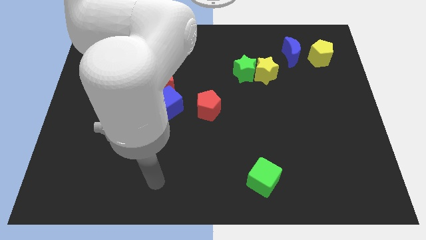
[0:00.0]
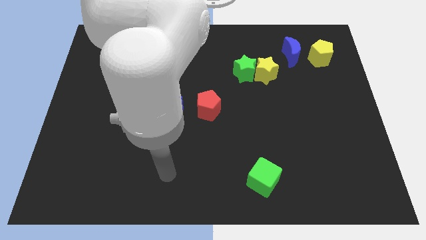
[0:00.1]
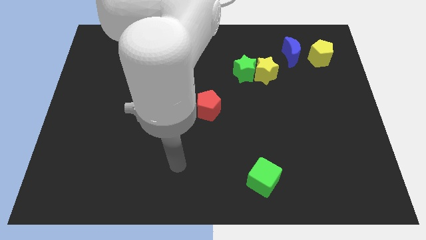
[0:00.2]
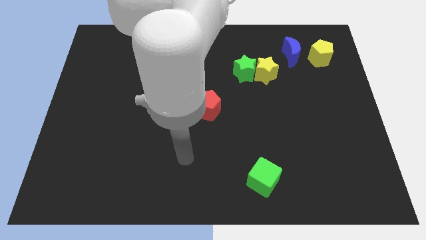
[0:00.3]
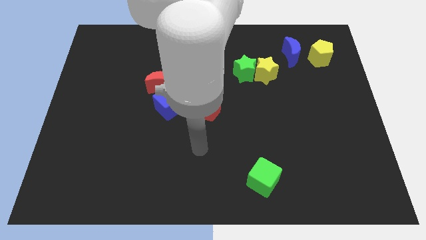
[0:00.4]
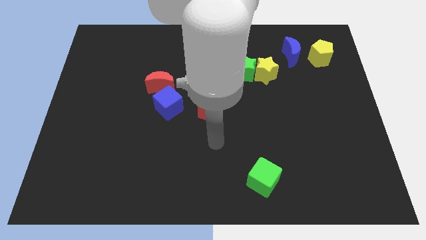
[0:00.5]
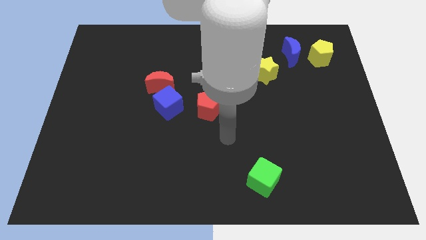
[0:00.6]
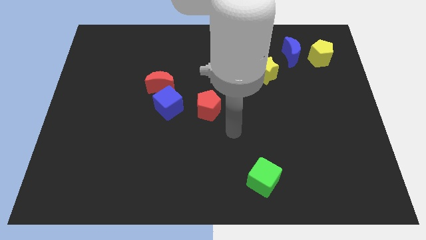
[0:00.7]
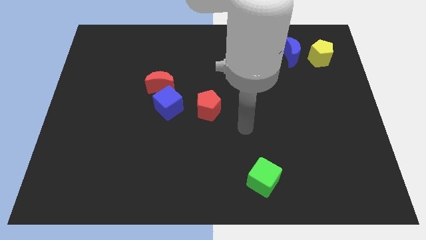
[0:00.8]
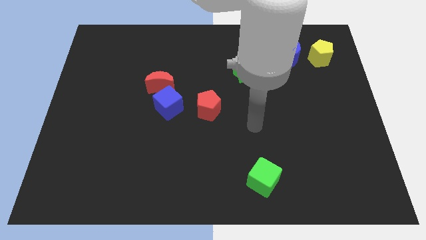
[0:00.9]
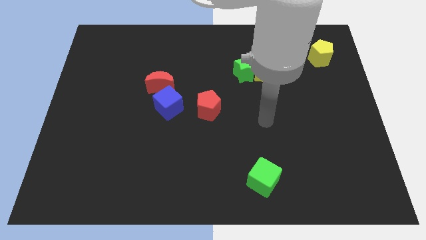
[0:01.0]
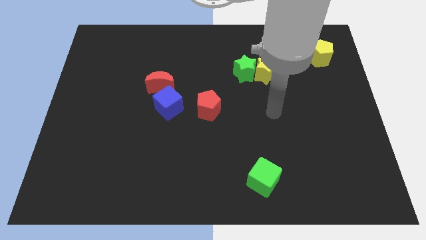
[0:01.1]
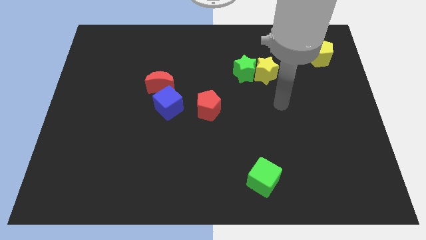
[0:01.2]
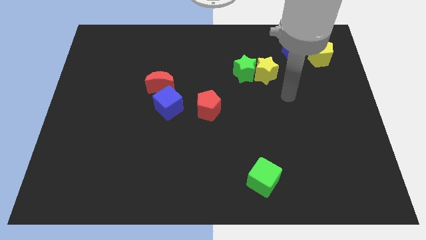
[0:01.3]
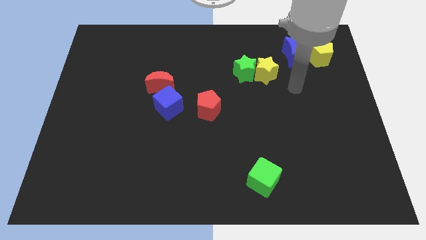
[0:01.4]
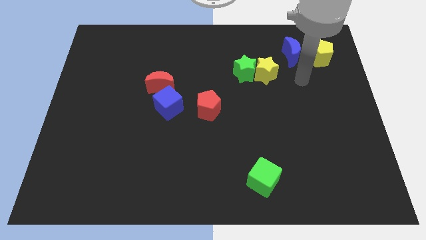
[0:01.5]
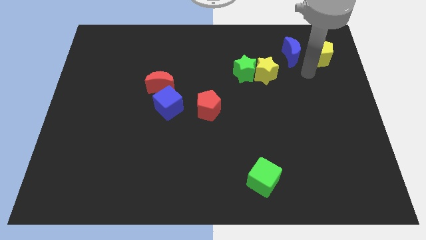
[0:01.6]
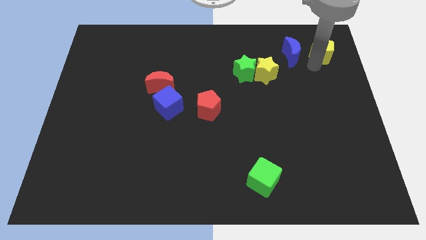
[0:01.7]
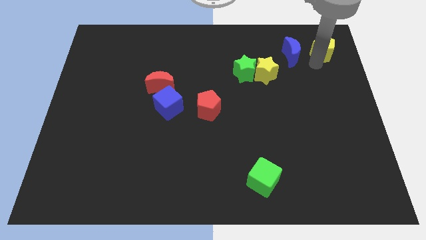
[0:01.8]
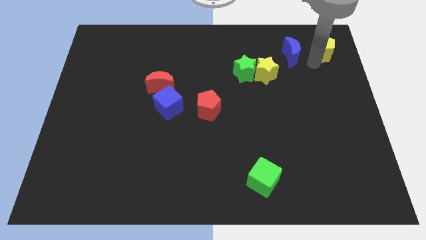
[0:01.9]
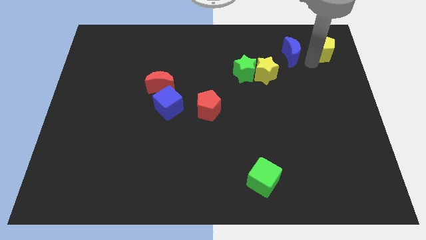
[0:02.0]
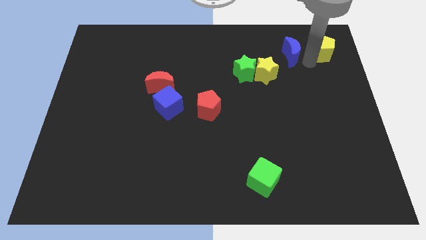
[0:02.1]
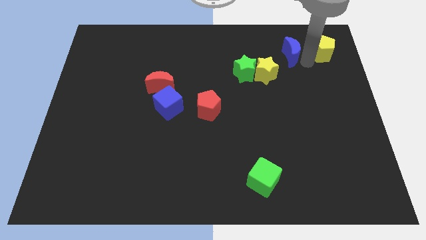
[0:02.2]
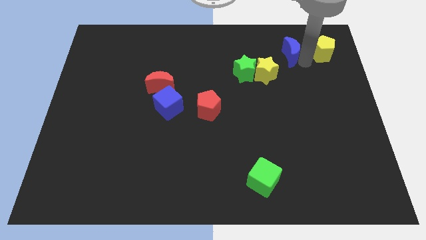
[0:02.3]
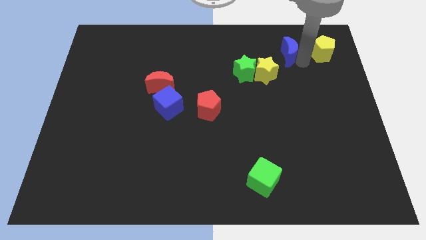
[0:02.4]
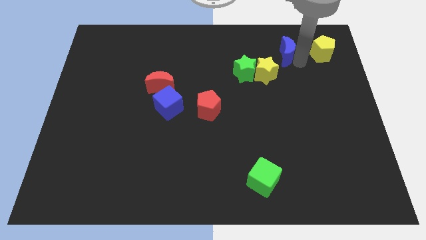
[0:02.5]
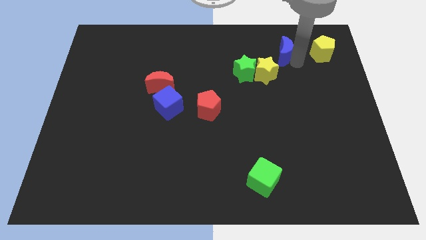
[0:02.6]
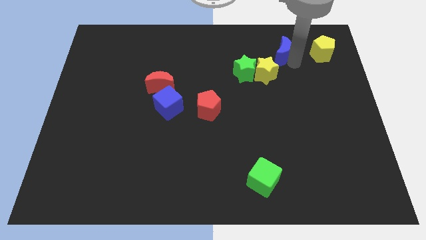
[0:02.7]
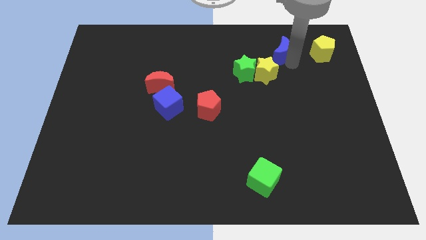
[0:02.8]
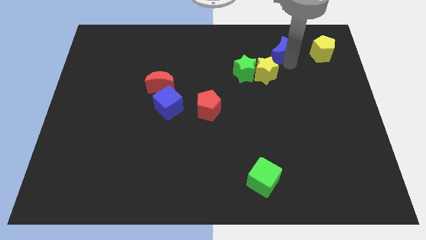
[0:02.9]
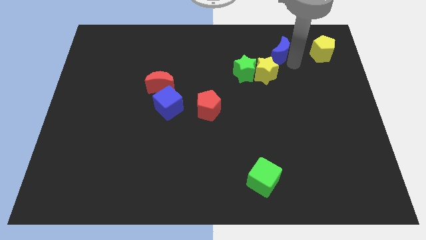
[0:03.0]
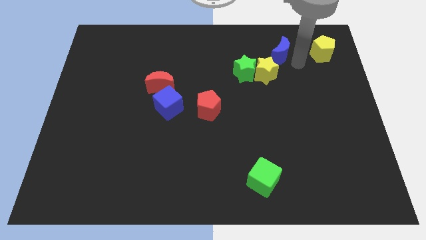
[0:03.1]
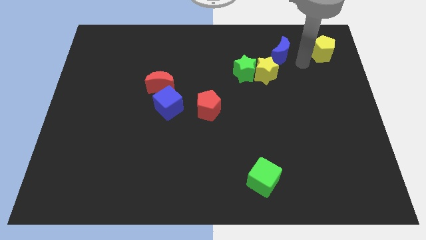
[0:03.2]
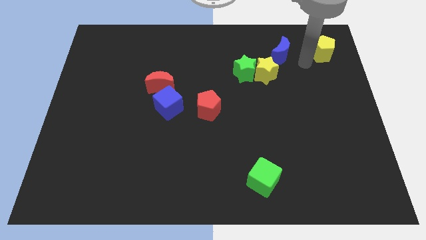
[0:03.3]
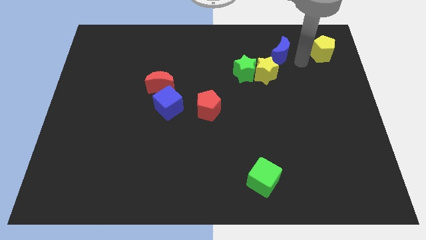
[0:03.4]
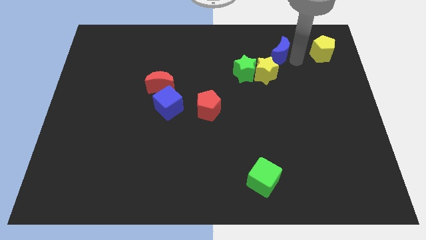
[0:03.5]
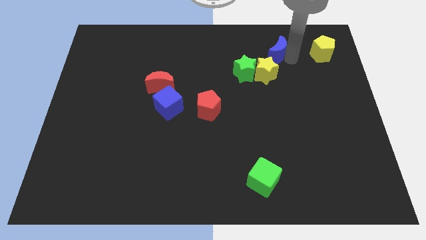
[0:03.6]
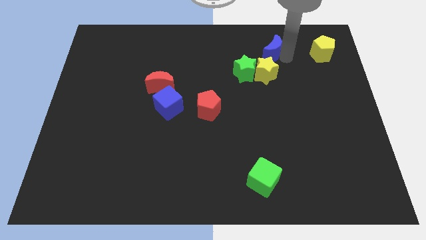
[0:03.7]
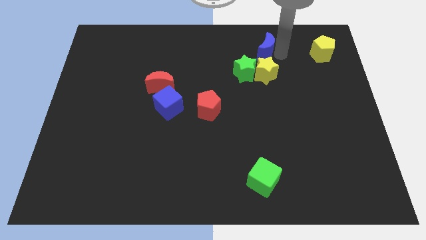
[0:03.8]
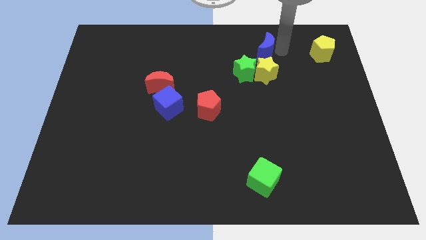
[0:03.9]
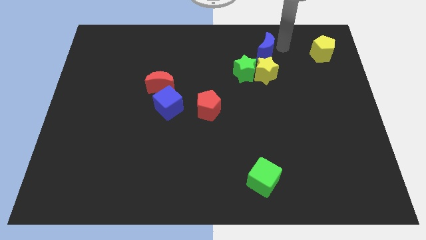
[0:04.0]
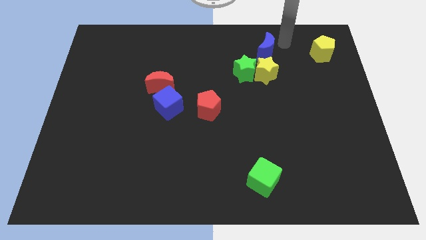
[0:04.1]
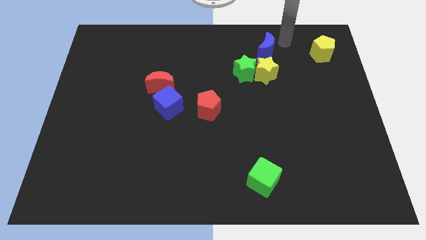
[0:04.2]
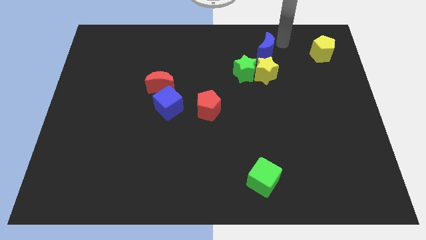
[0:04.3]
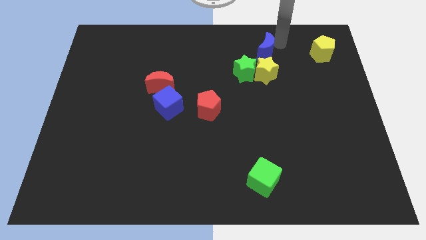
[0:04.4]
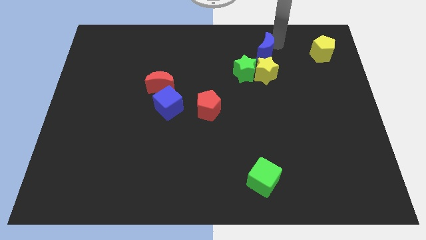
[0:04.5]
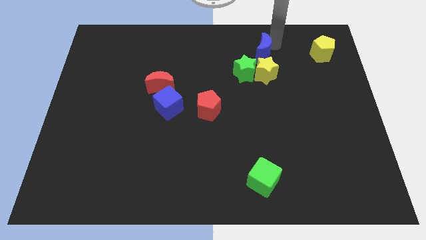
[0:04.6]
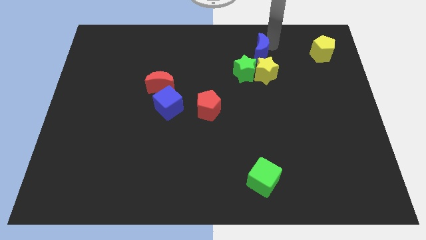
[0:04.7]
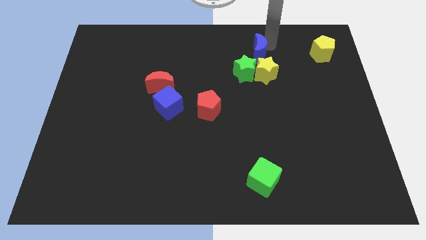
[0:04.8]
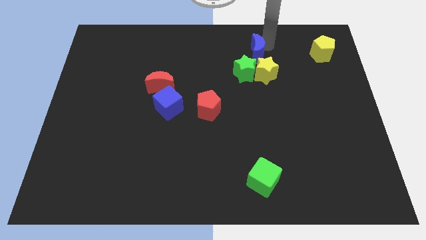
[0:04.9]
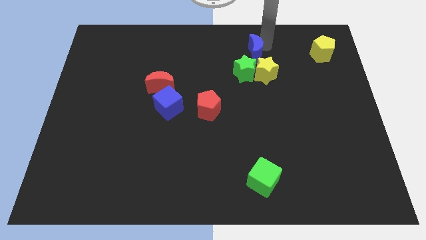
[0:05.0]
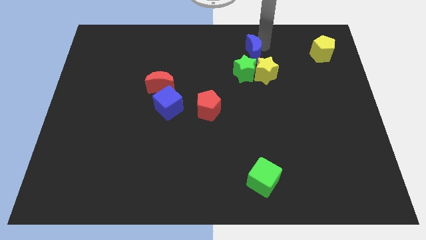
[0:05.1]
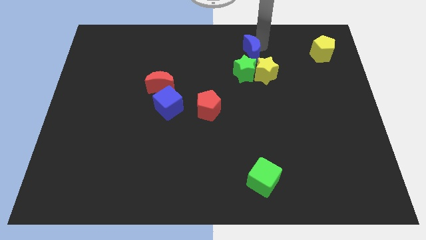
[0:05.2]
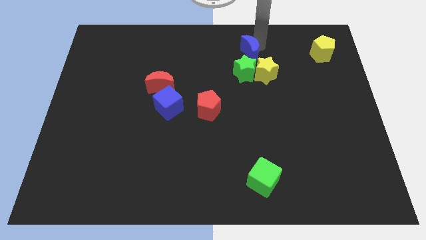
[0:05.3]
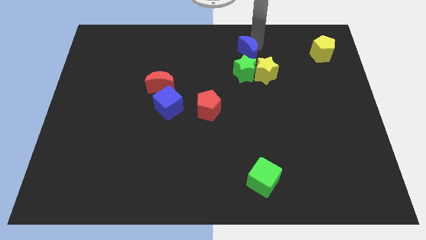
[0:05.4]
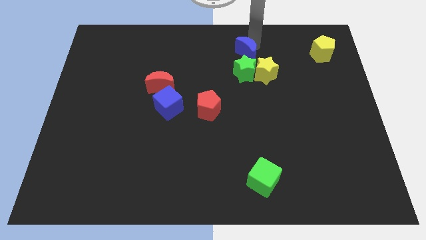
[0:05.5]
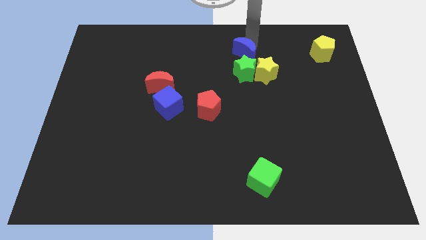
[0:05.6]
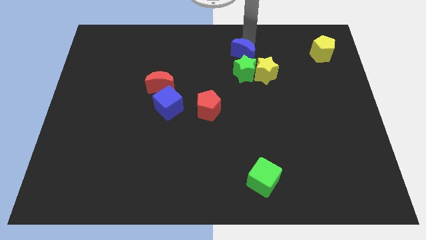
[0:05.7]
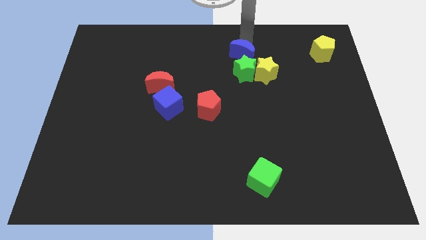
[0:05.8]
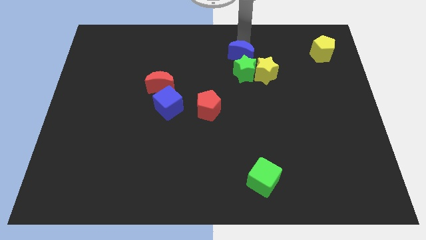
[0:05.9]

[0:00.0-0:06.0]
move the blue moon towards the green star

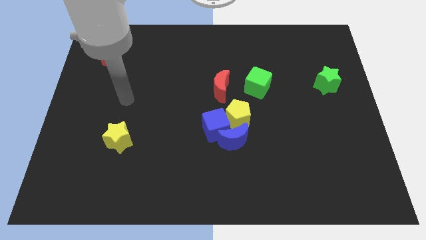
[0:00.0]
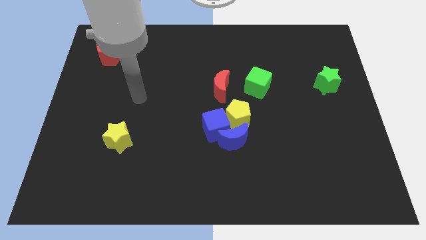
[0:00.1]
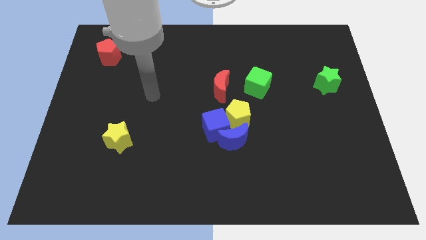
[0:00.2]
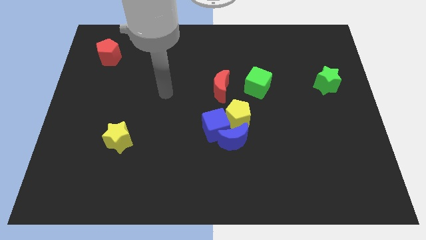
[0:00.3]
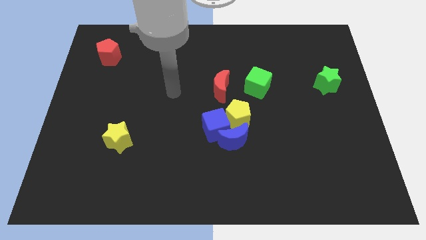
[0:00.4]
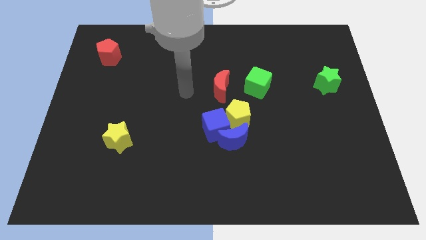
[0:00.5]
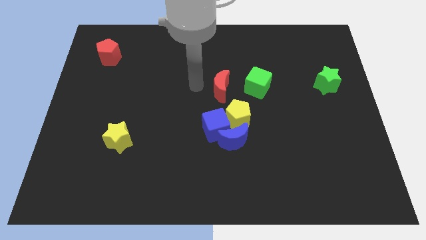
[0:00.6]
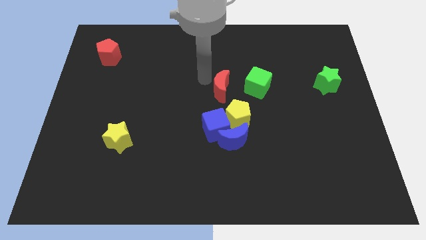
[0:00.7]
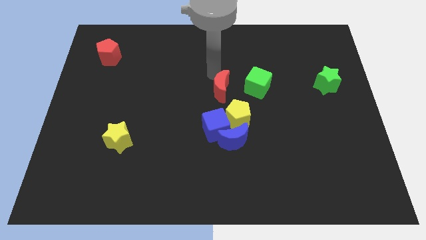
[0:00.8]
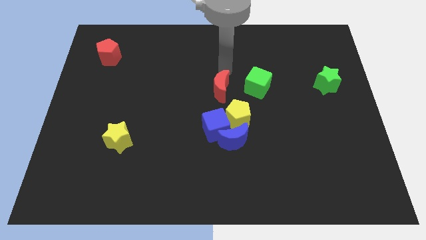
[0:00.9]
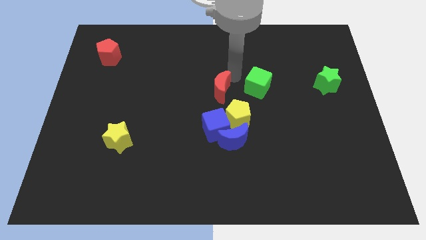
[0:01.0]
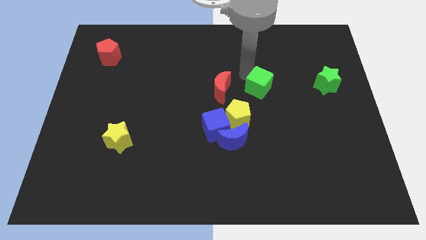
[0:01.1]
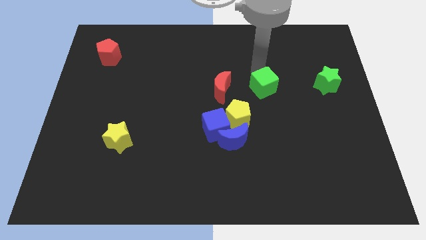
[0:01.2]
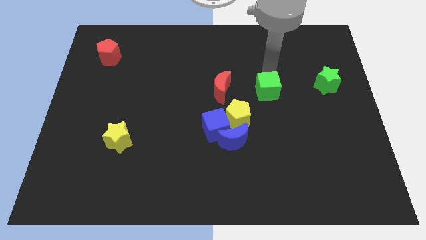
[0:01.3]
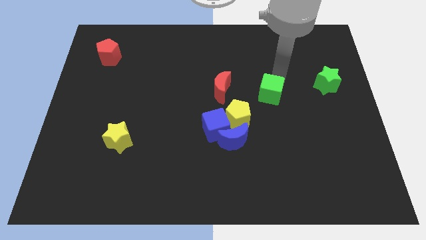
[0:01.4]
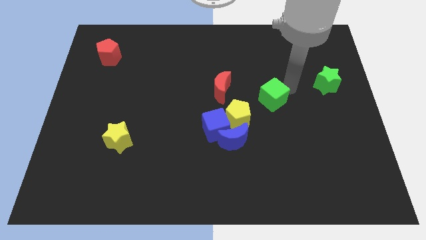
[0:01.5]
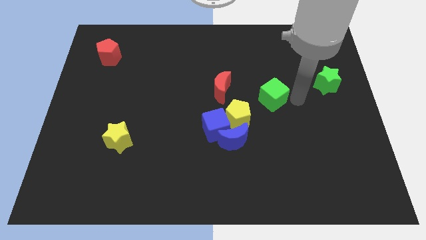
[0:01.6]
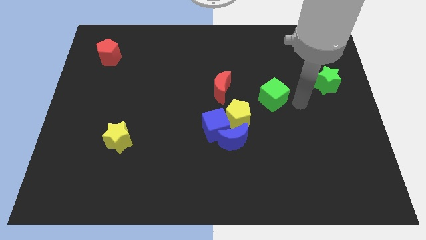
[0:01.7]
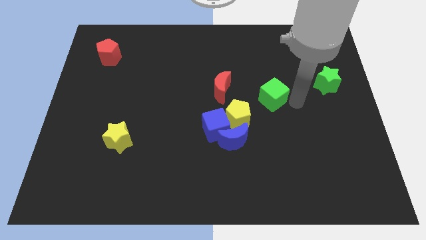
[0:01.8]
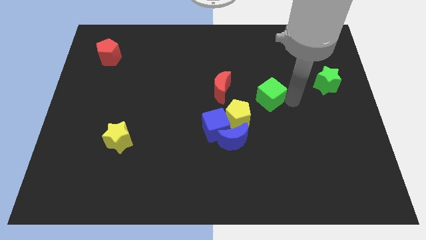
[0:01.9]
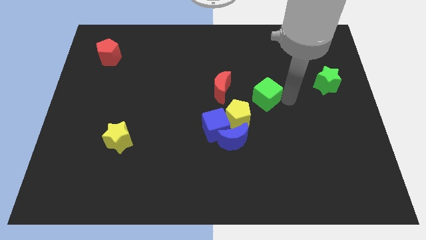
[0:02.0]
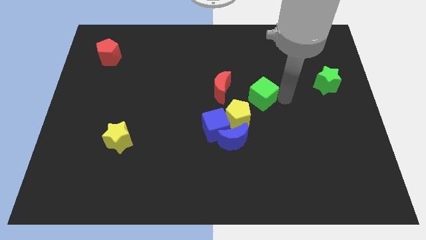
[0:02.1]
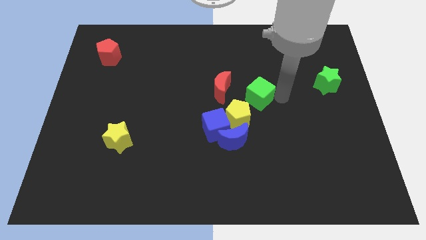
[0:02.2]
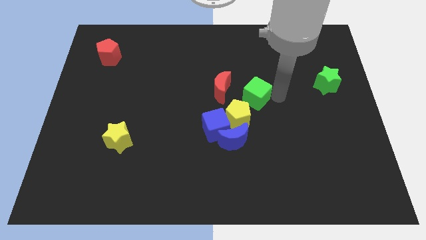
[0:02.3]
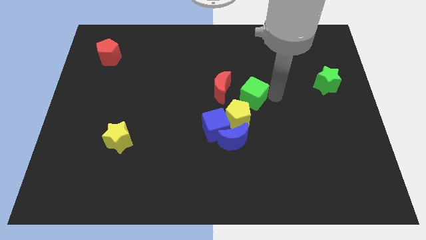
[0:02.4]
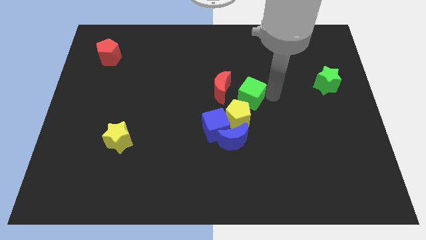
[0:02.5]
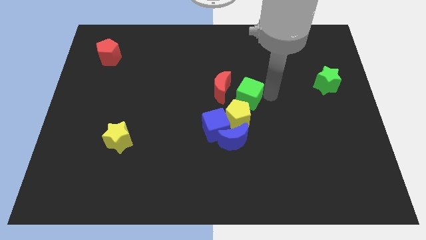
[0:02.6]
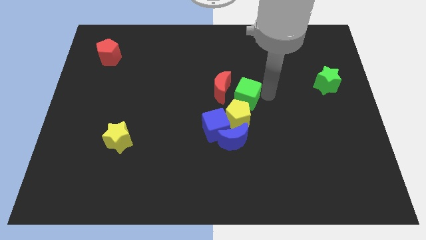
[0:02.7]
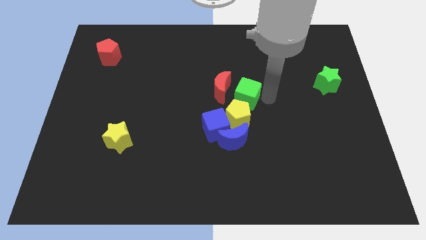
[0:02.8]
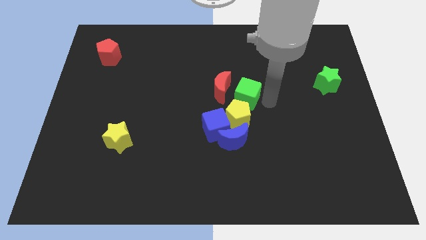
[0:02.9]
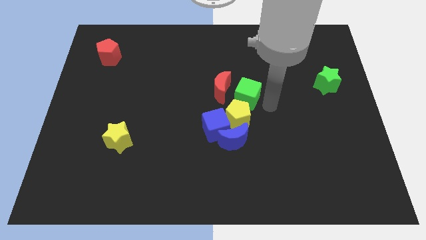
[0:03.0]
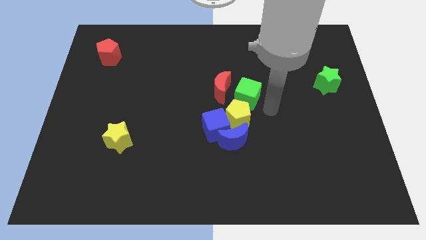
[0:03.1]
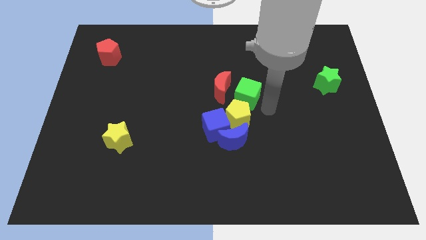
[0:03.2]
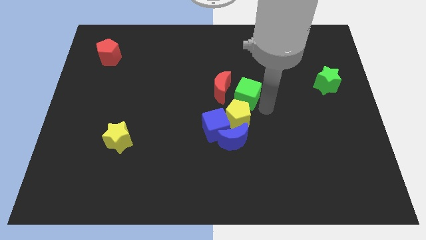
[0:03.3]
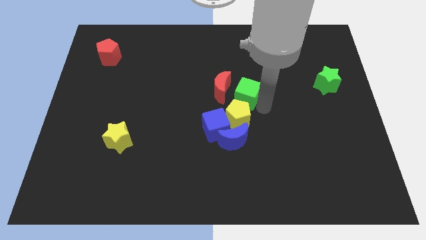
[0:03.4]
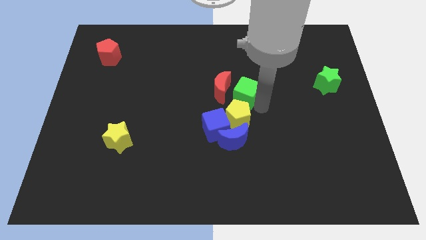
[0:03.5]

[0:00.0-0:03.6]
move the green cube towards the red moon
